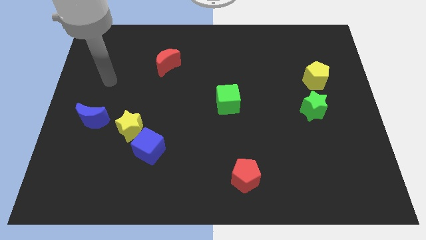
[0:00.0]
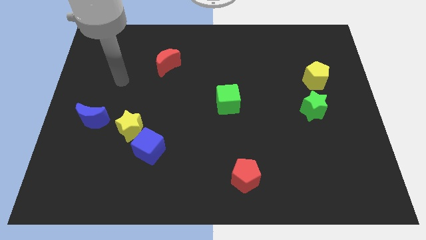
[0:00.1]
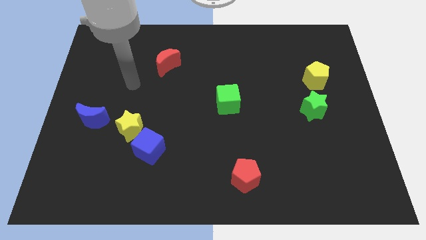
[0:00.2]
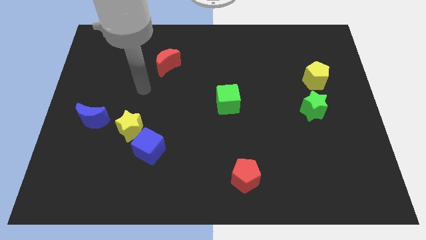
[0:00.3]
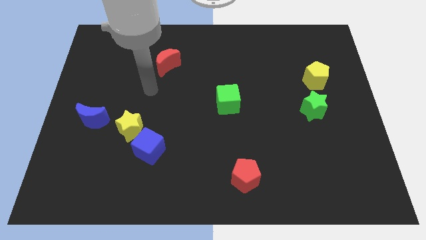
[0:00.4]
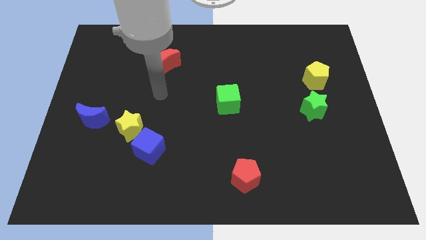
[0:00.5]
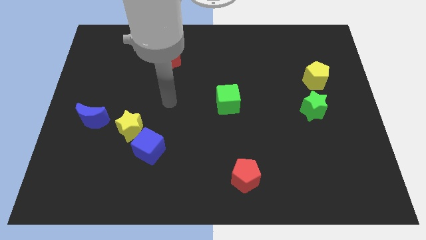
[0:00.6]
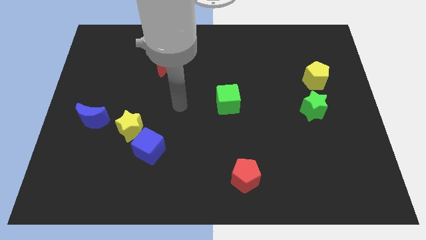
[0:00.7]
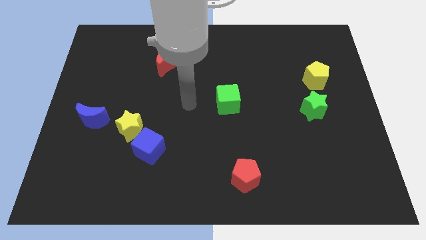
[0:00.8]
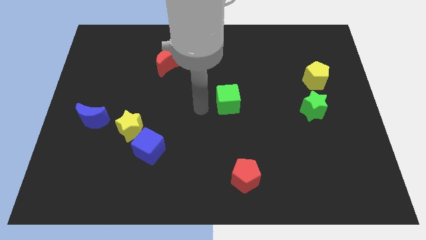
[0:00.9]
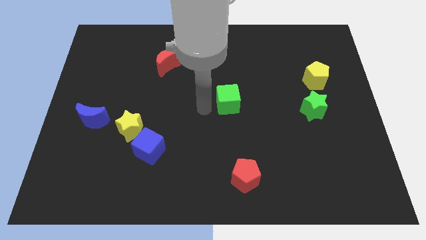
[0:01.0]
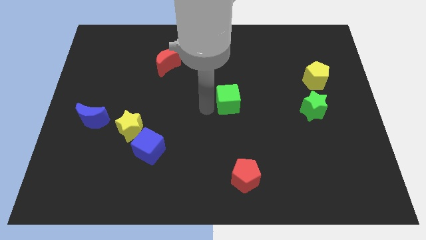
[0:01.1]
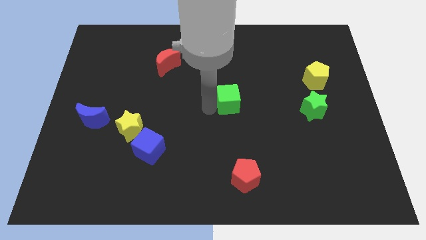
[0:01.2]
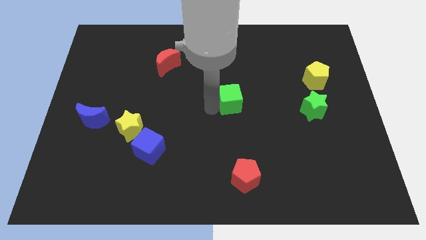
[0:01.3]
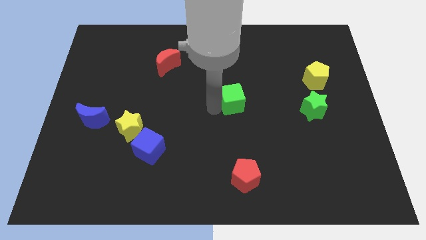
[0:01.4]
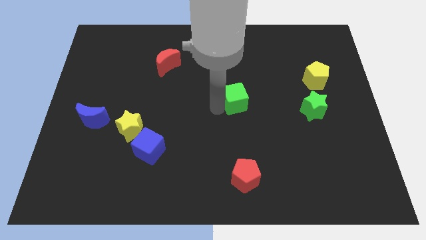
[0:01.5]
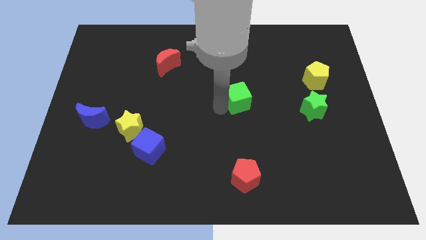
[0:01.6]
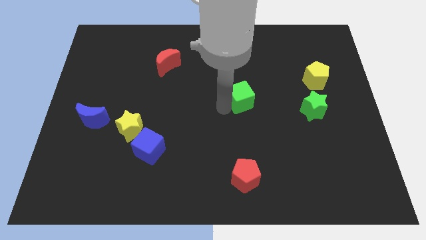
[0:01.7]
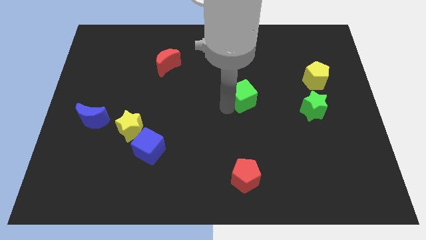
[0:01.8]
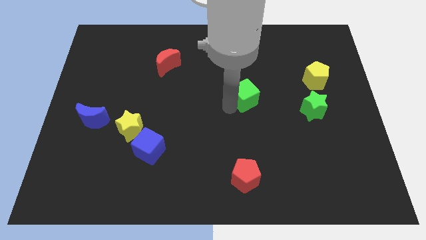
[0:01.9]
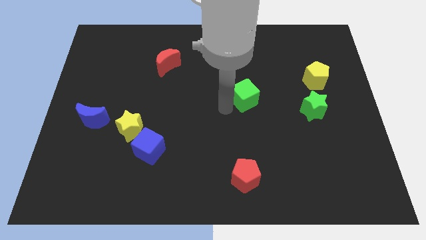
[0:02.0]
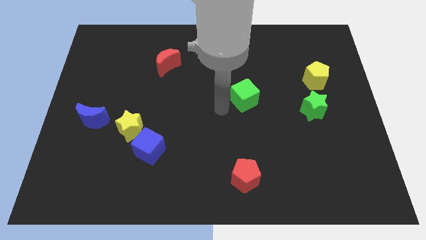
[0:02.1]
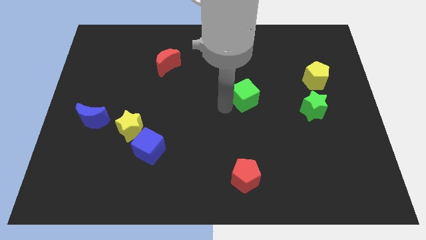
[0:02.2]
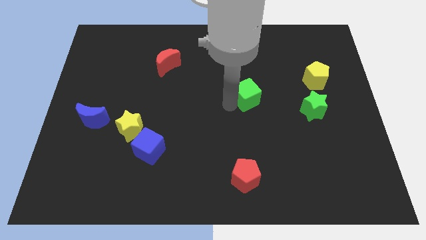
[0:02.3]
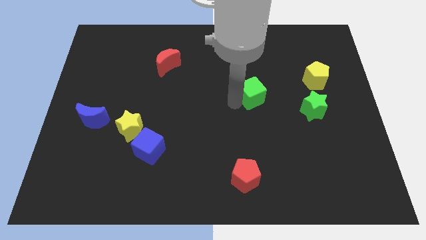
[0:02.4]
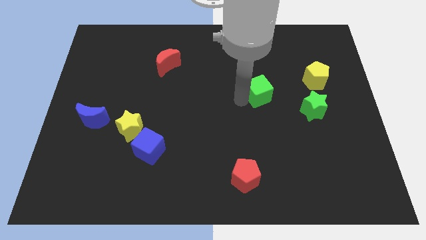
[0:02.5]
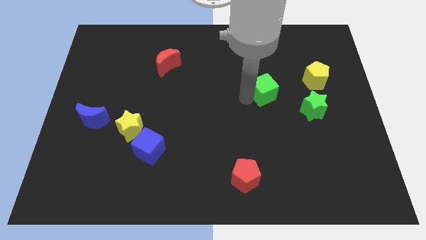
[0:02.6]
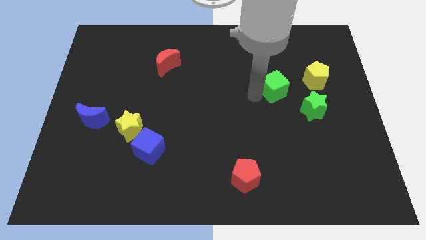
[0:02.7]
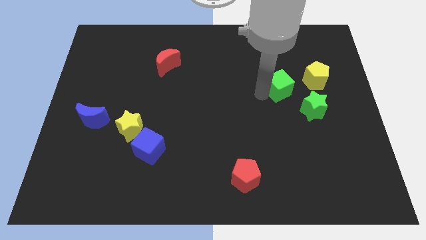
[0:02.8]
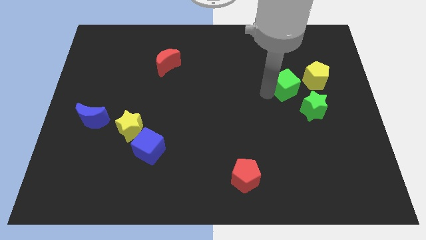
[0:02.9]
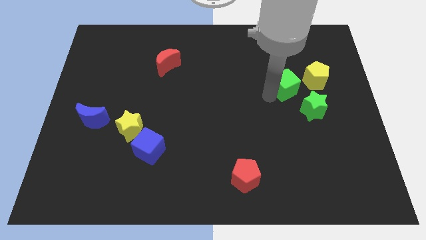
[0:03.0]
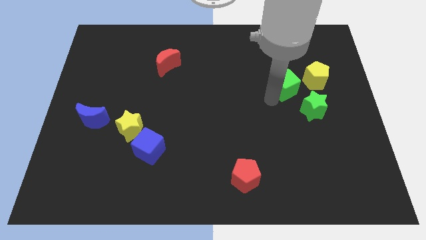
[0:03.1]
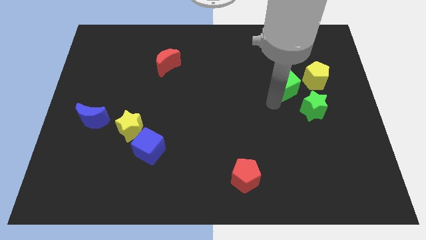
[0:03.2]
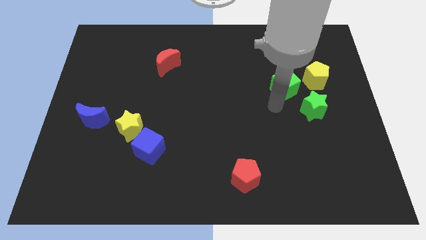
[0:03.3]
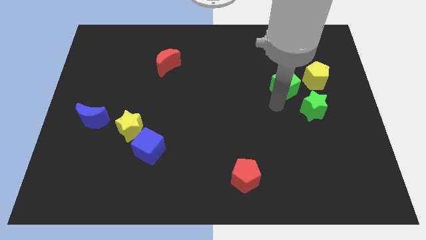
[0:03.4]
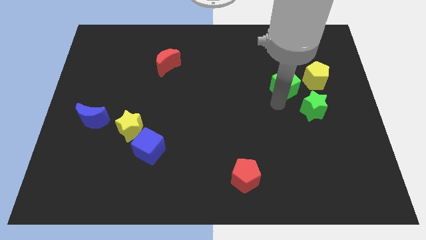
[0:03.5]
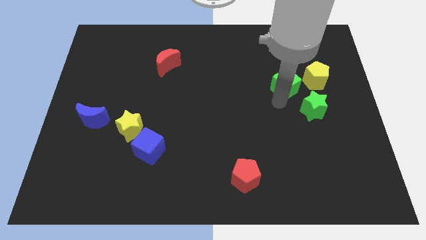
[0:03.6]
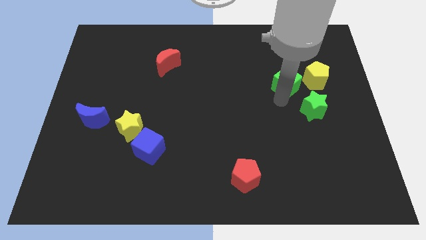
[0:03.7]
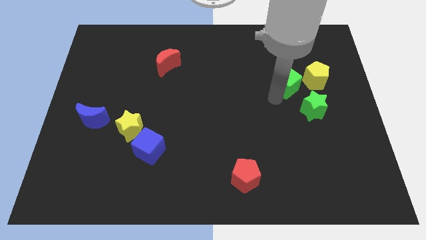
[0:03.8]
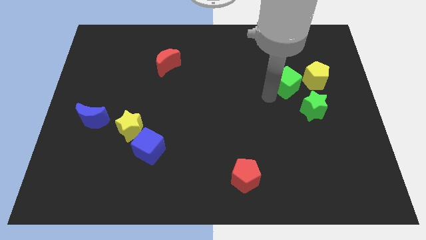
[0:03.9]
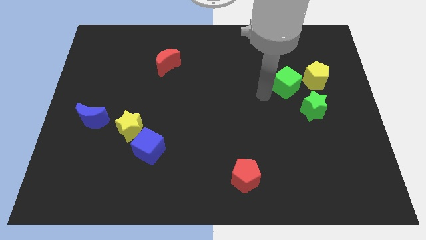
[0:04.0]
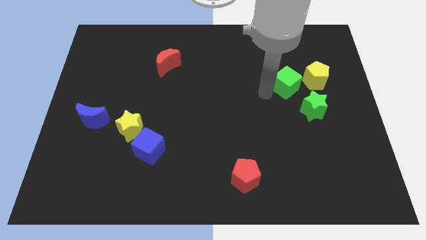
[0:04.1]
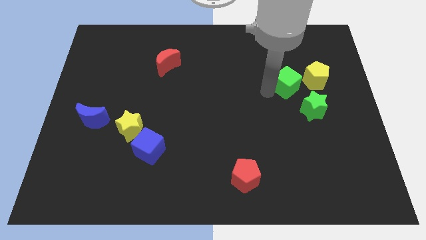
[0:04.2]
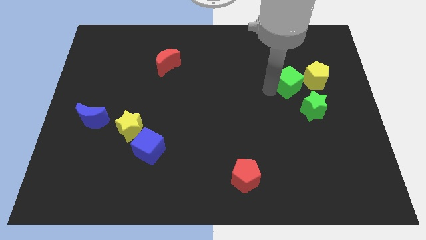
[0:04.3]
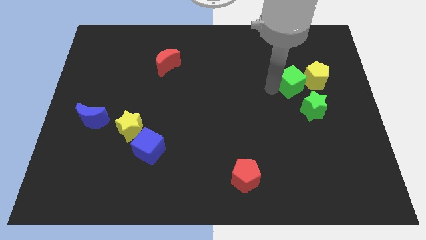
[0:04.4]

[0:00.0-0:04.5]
slide the green cube to the top side of the green star

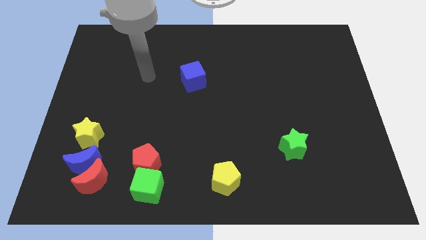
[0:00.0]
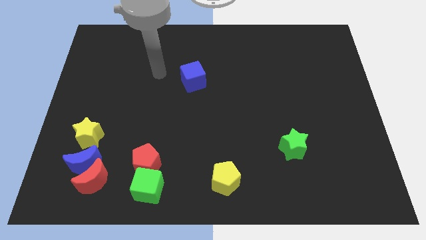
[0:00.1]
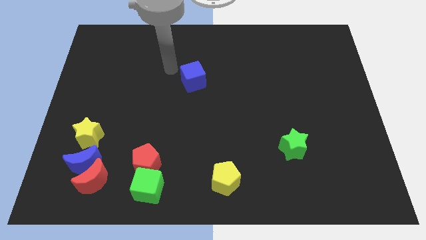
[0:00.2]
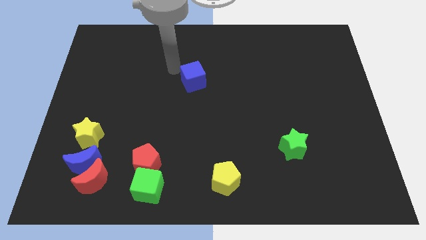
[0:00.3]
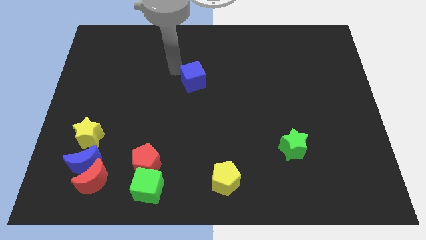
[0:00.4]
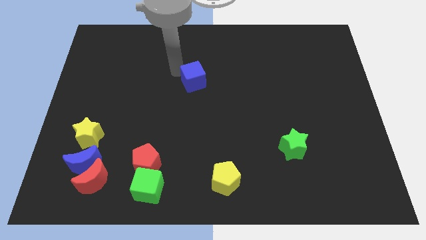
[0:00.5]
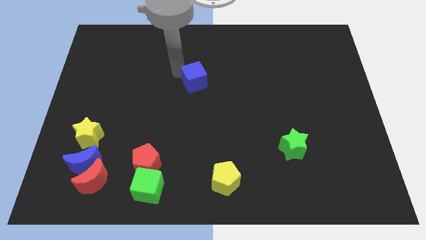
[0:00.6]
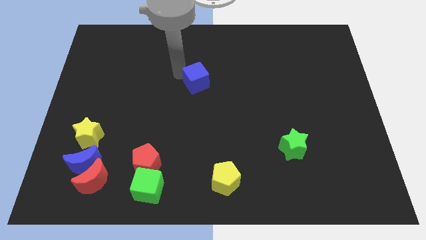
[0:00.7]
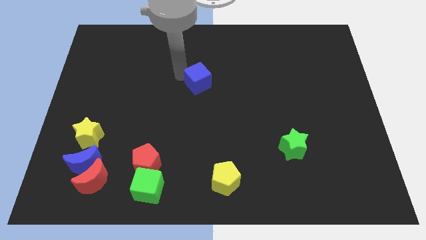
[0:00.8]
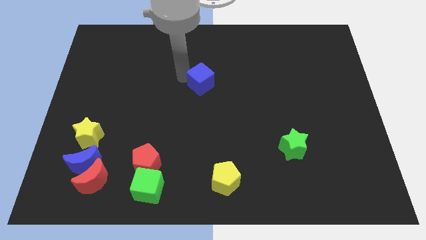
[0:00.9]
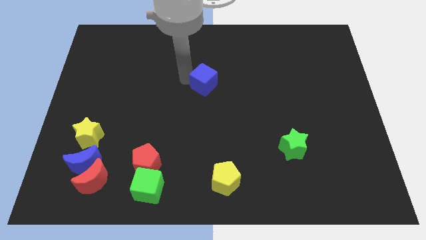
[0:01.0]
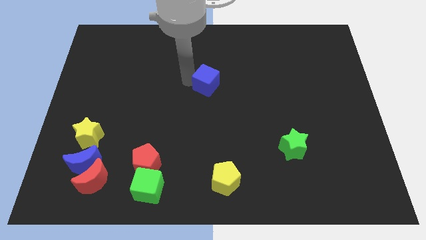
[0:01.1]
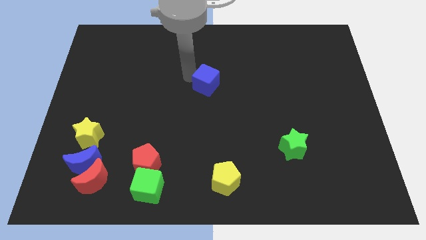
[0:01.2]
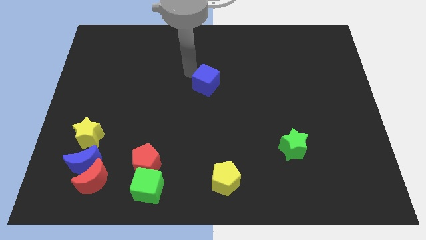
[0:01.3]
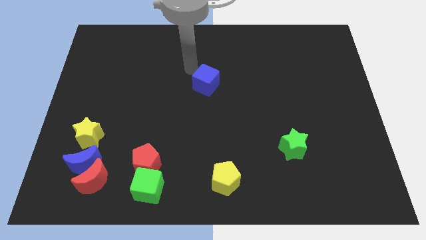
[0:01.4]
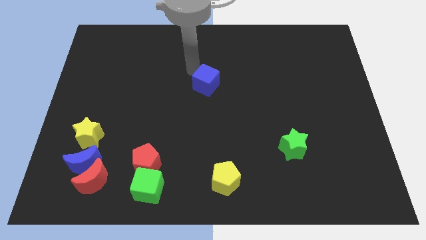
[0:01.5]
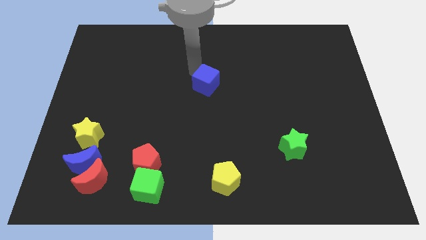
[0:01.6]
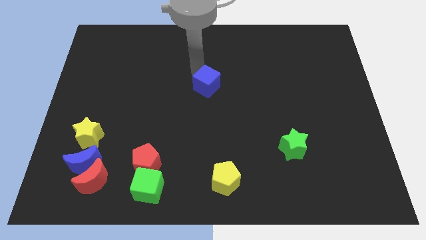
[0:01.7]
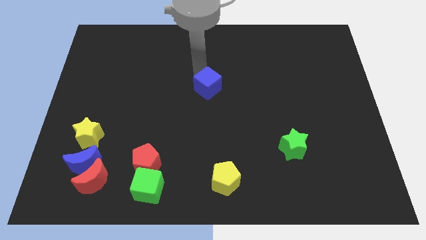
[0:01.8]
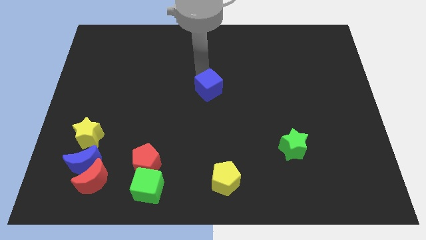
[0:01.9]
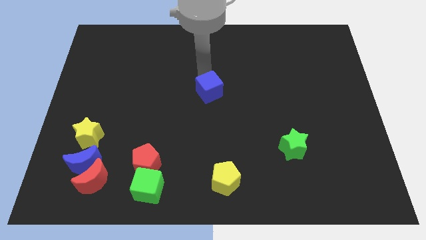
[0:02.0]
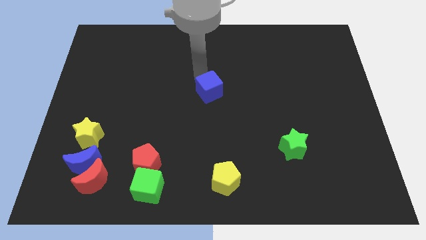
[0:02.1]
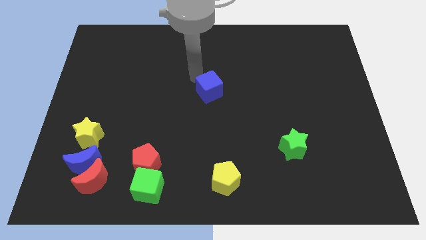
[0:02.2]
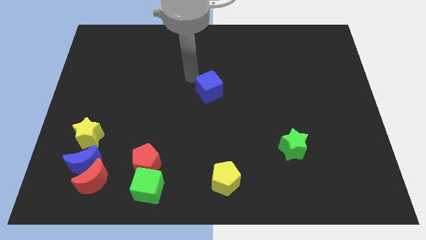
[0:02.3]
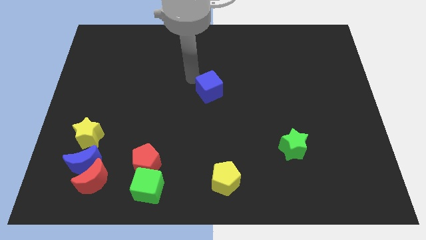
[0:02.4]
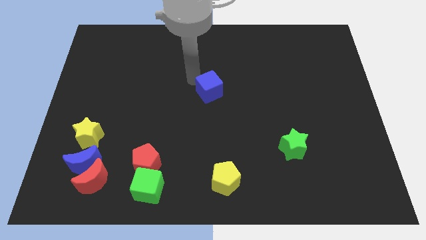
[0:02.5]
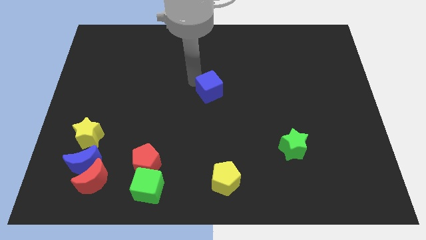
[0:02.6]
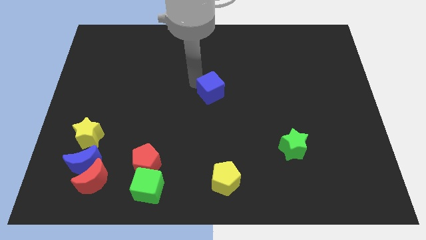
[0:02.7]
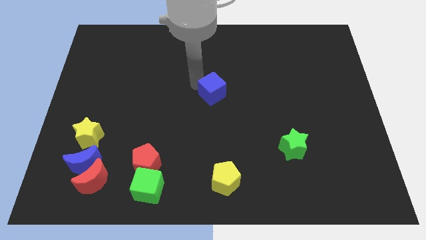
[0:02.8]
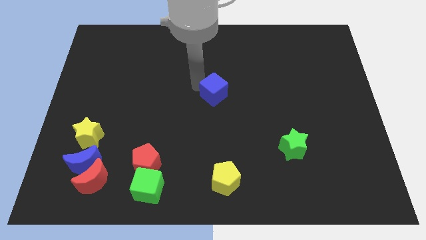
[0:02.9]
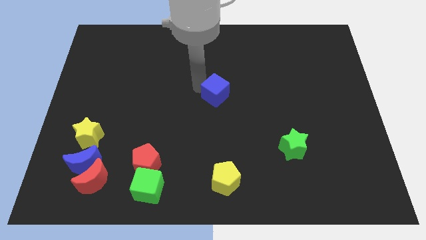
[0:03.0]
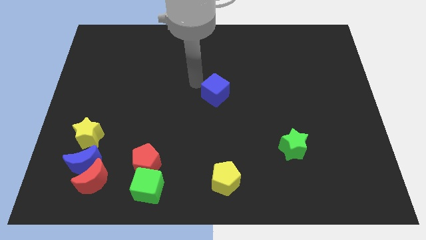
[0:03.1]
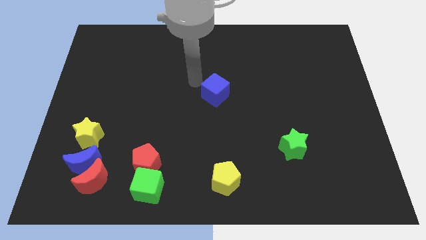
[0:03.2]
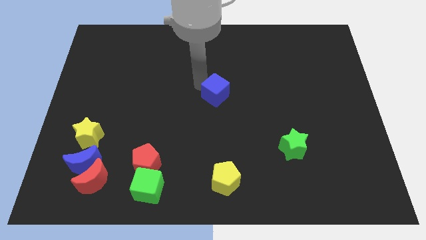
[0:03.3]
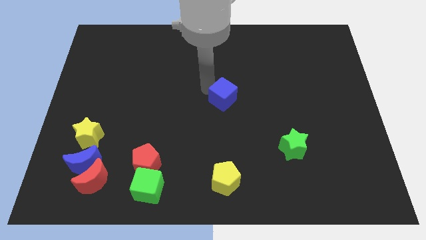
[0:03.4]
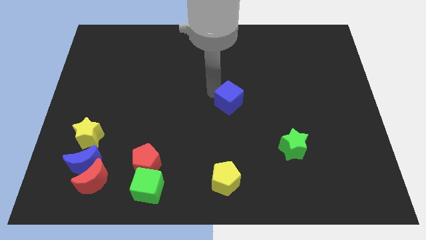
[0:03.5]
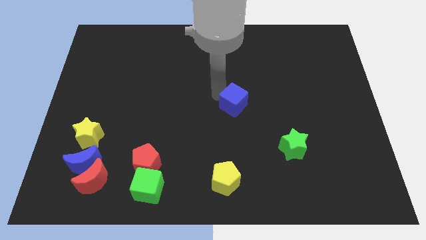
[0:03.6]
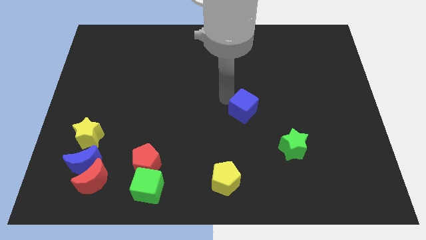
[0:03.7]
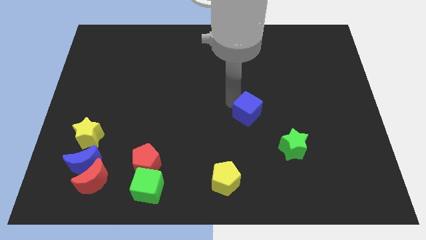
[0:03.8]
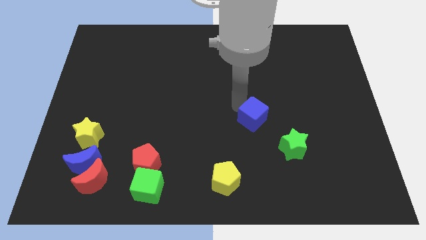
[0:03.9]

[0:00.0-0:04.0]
slide the blue cube to the top left of the green star
